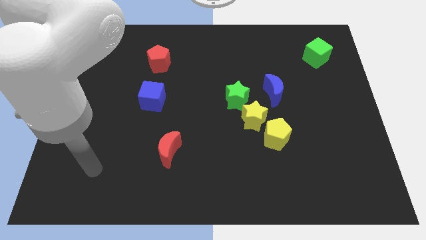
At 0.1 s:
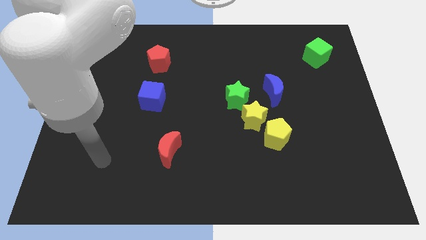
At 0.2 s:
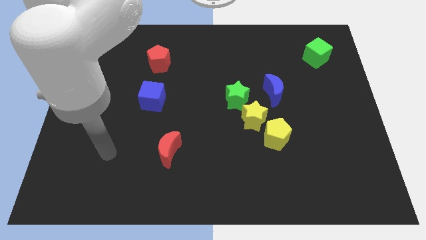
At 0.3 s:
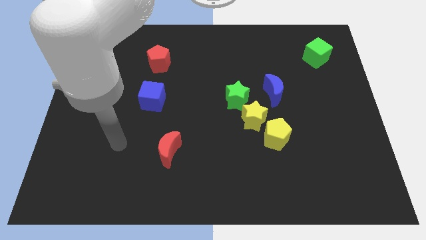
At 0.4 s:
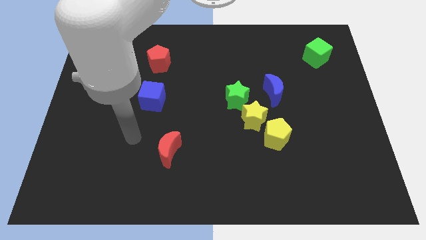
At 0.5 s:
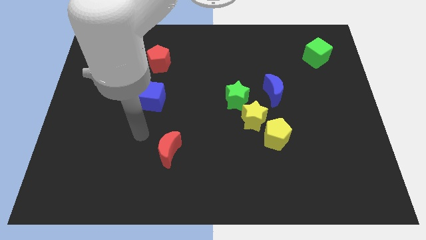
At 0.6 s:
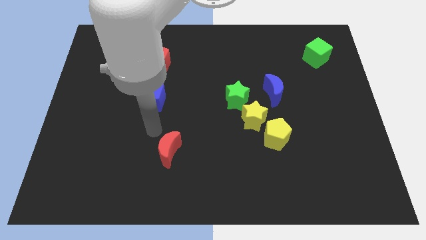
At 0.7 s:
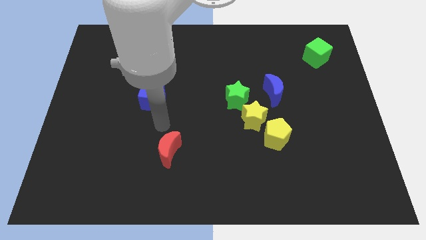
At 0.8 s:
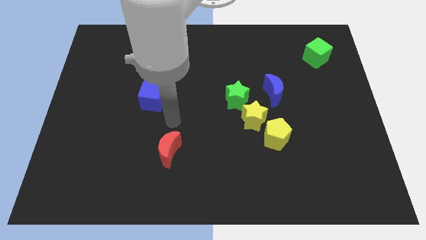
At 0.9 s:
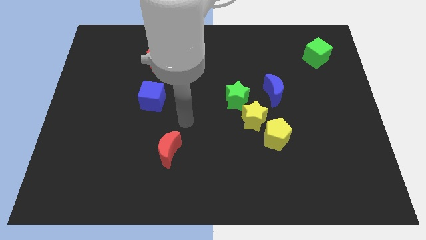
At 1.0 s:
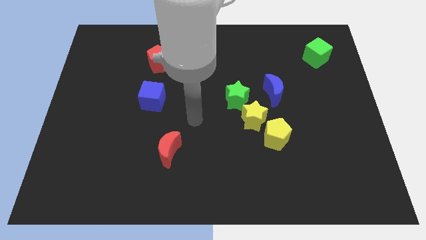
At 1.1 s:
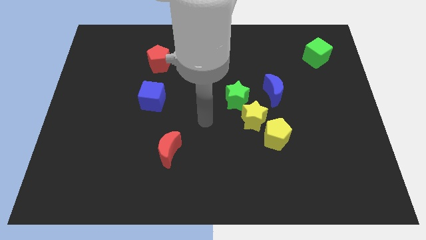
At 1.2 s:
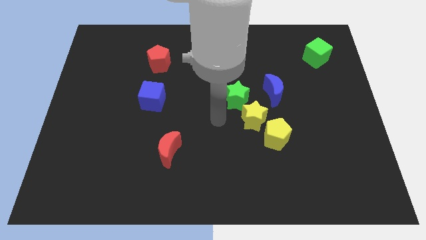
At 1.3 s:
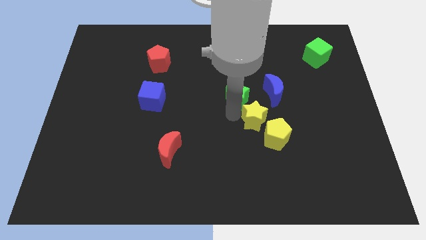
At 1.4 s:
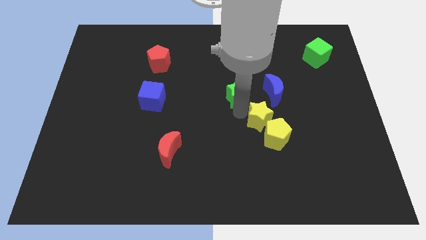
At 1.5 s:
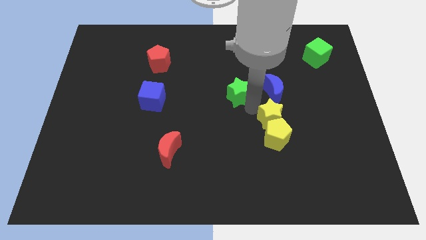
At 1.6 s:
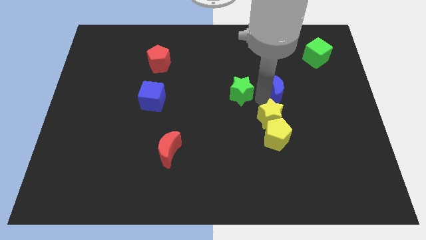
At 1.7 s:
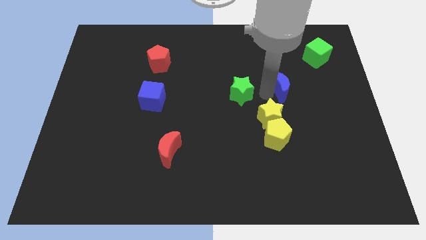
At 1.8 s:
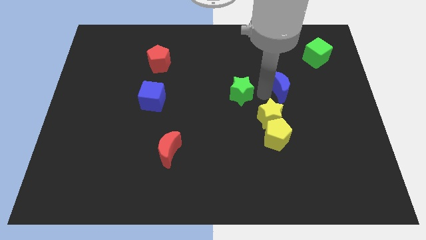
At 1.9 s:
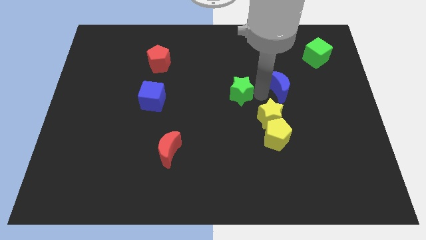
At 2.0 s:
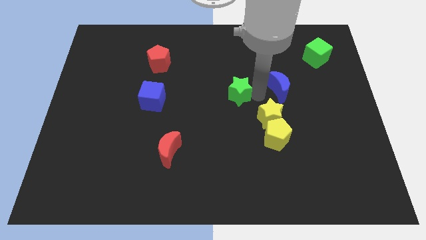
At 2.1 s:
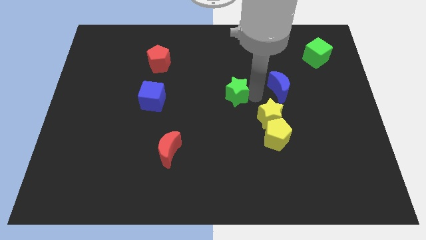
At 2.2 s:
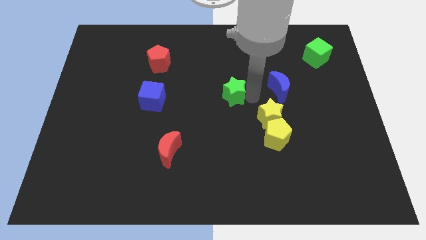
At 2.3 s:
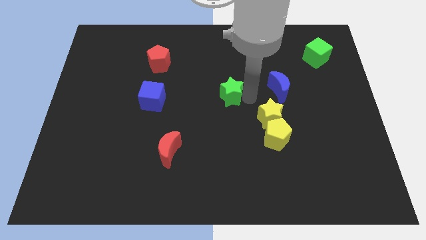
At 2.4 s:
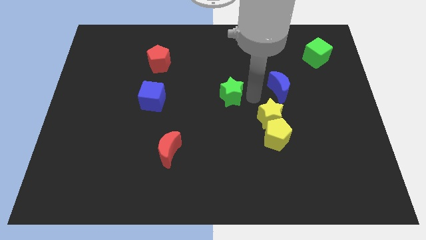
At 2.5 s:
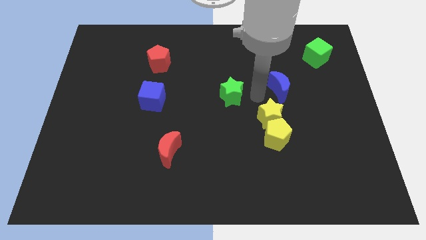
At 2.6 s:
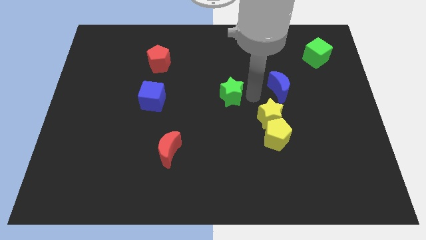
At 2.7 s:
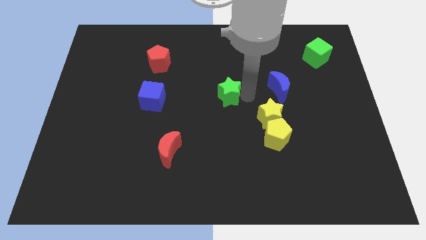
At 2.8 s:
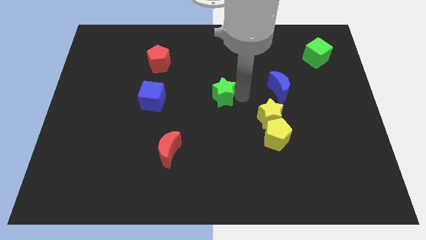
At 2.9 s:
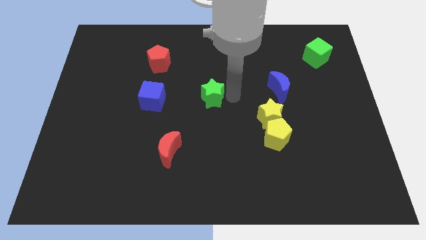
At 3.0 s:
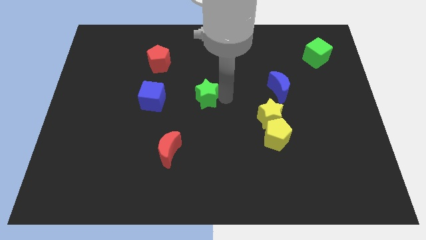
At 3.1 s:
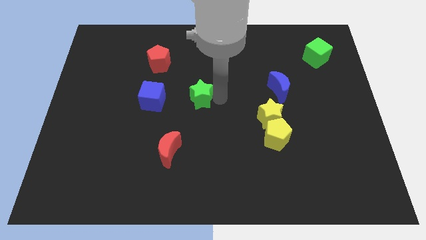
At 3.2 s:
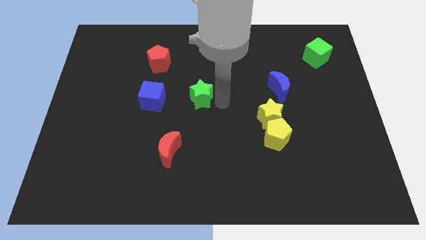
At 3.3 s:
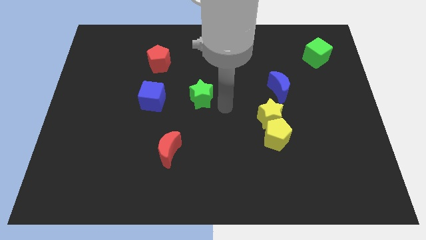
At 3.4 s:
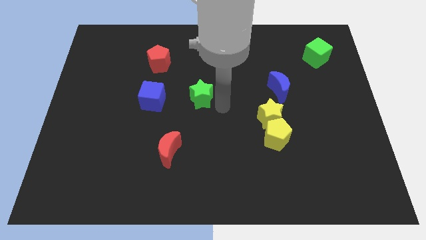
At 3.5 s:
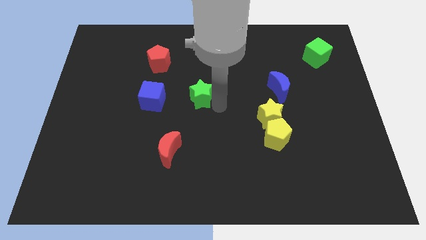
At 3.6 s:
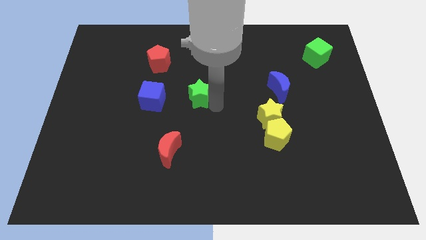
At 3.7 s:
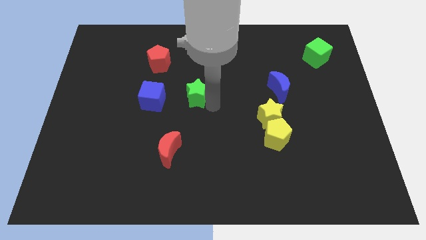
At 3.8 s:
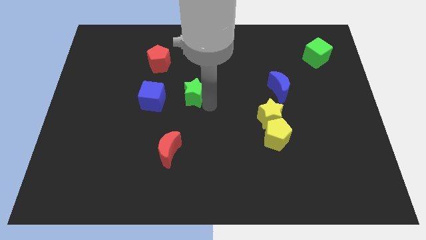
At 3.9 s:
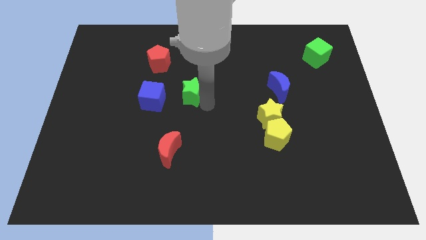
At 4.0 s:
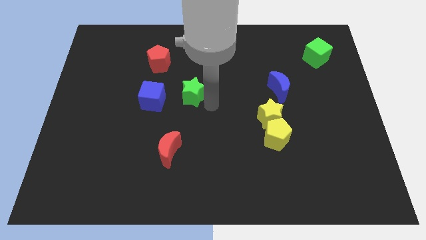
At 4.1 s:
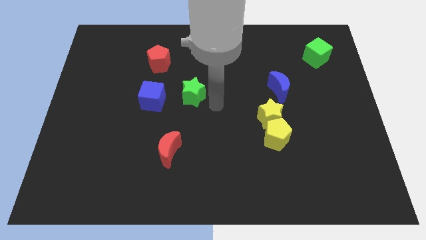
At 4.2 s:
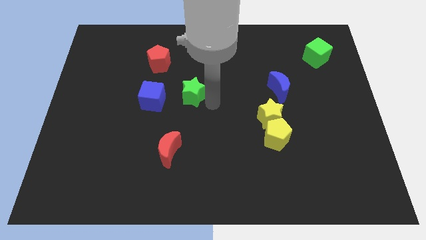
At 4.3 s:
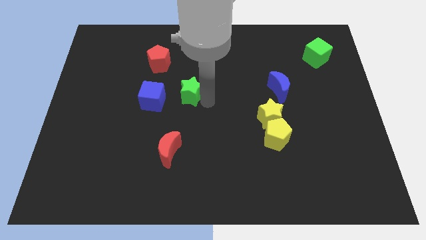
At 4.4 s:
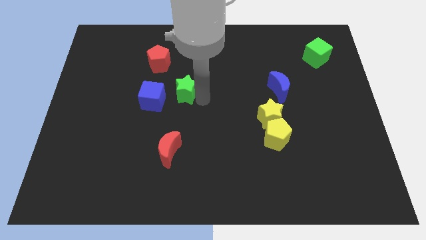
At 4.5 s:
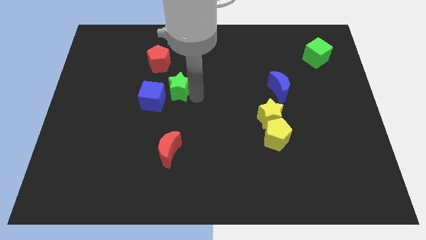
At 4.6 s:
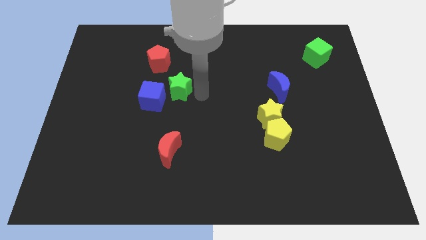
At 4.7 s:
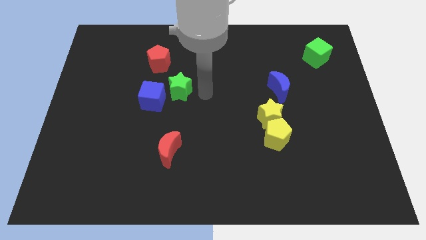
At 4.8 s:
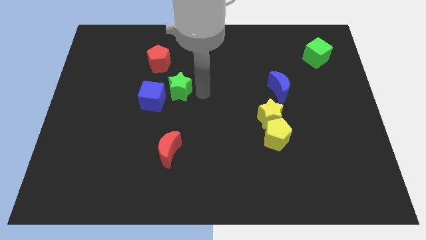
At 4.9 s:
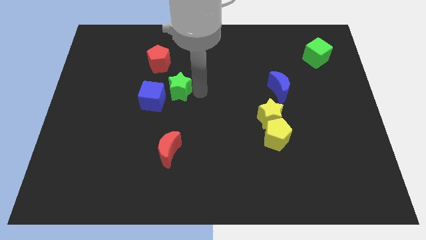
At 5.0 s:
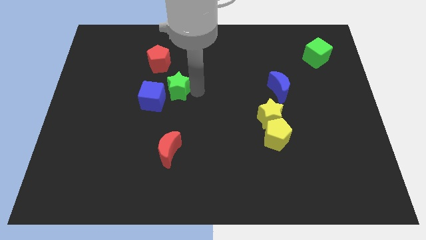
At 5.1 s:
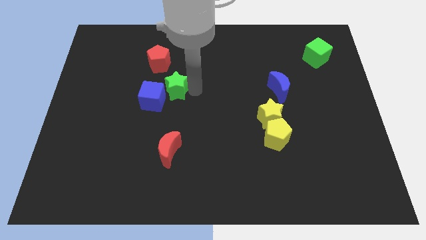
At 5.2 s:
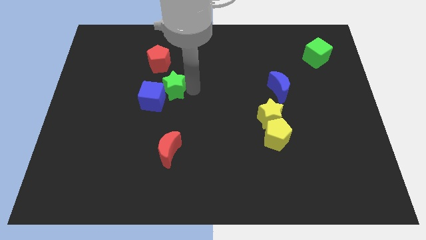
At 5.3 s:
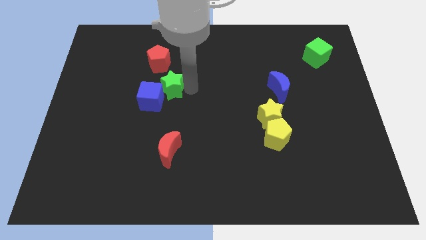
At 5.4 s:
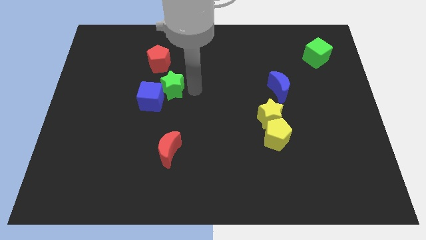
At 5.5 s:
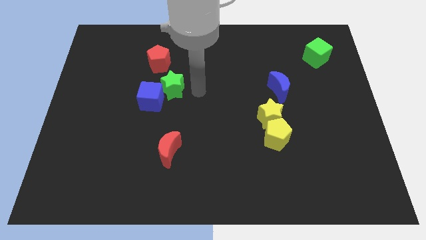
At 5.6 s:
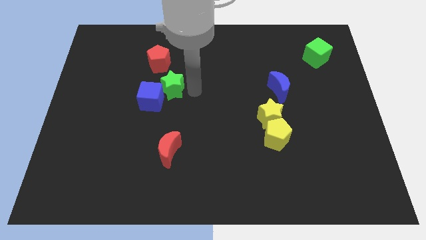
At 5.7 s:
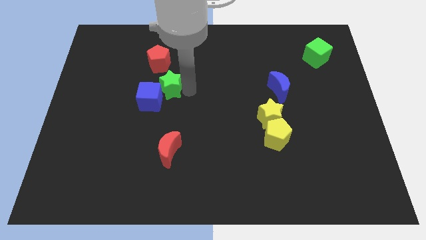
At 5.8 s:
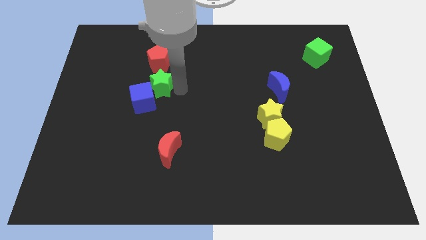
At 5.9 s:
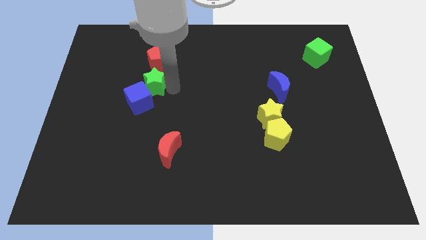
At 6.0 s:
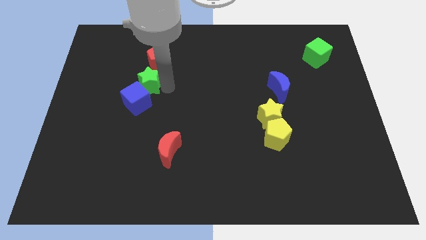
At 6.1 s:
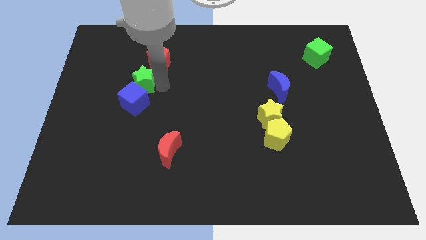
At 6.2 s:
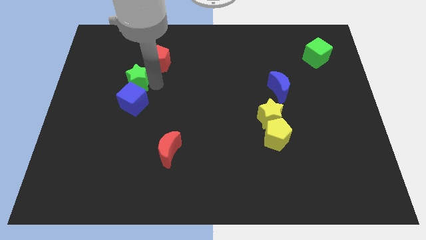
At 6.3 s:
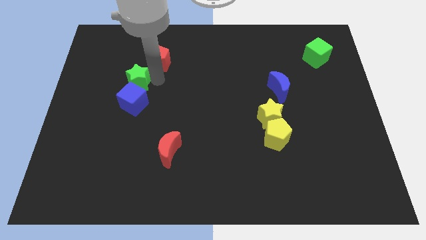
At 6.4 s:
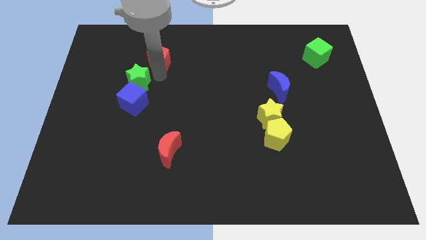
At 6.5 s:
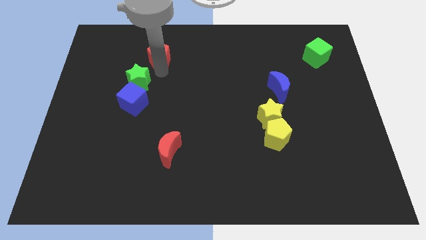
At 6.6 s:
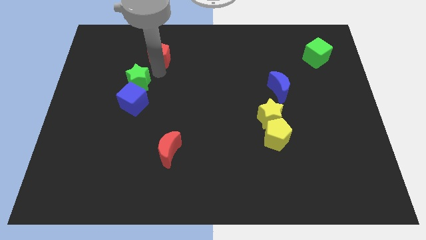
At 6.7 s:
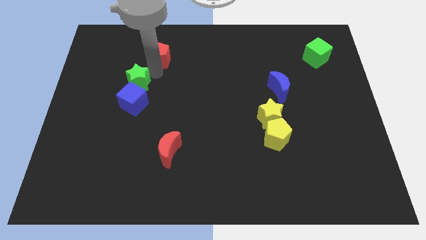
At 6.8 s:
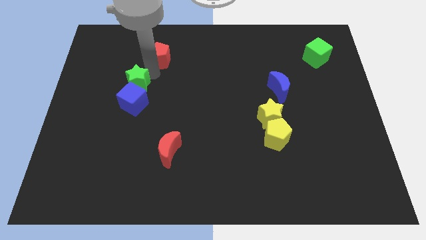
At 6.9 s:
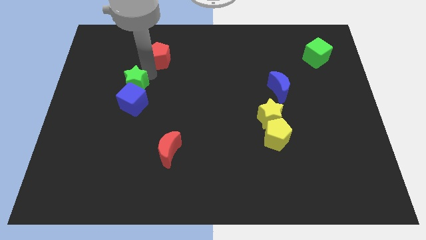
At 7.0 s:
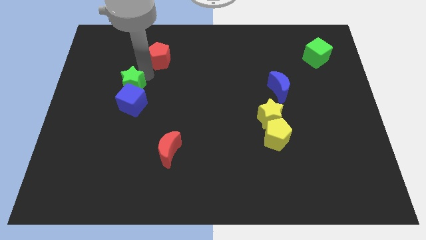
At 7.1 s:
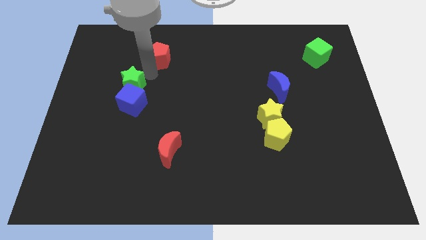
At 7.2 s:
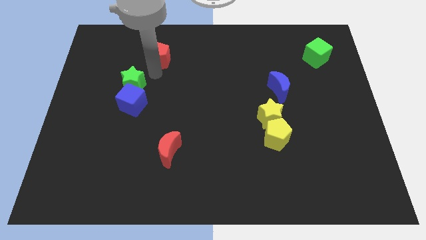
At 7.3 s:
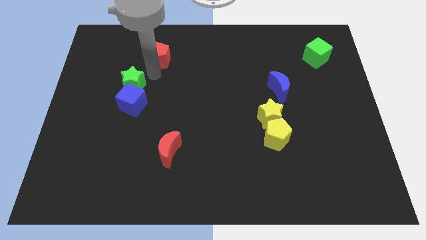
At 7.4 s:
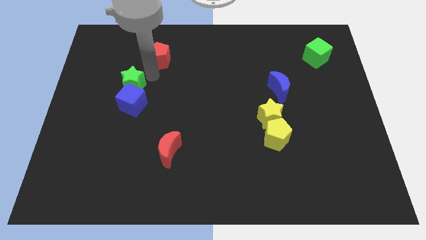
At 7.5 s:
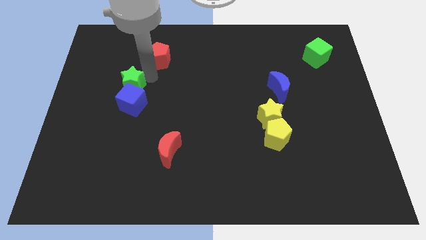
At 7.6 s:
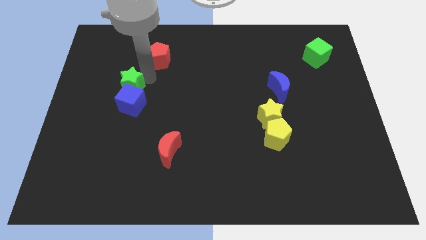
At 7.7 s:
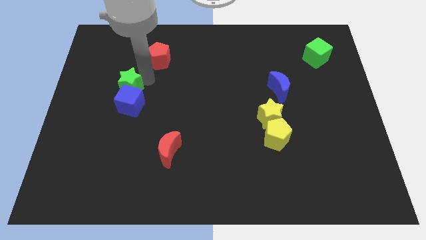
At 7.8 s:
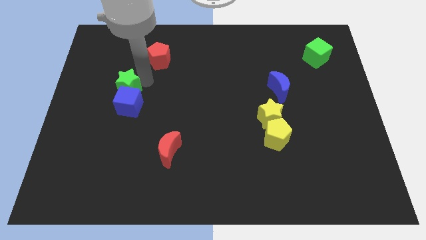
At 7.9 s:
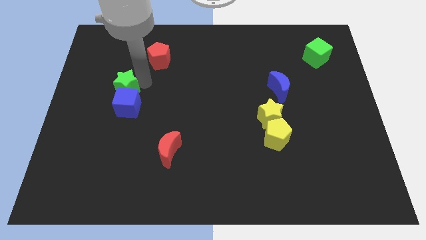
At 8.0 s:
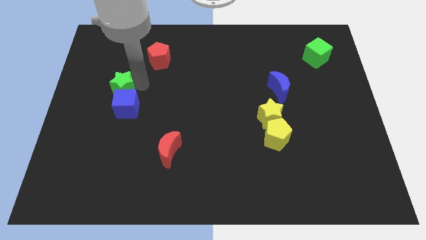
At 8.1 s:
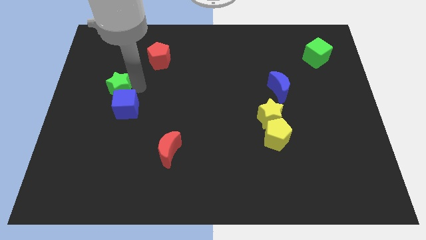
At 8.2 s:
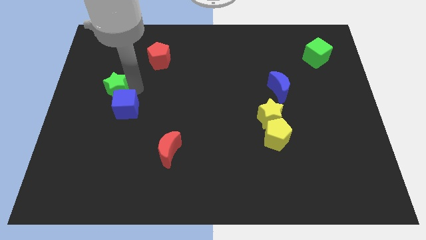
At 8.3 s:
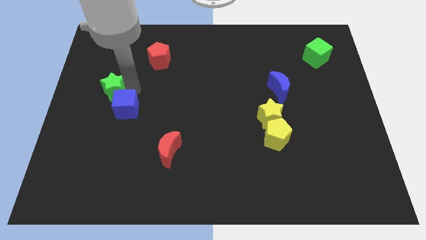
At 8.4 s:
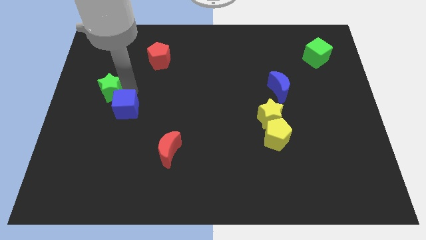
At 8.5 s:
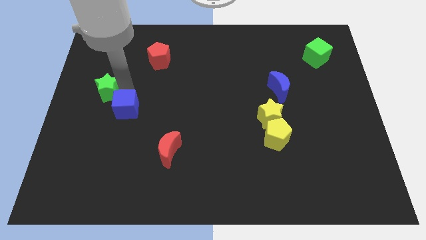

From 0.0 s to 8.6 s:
put the green star to the left side
